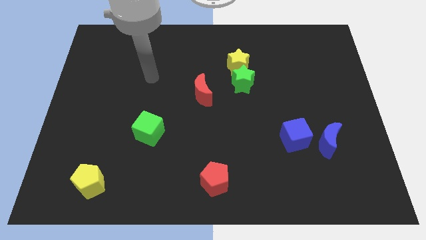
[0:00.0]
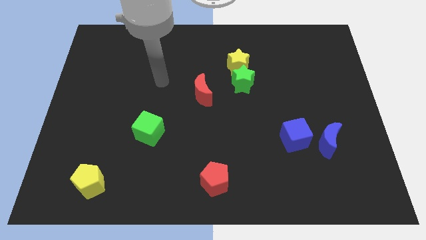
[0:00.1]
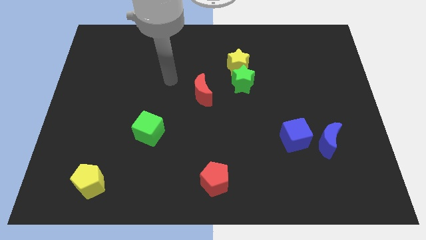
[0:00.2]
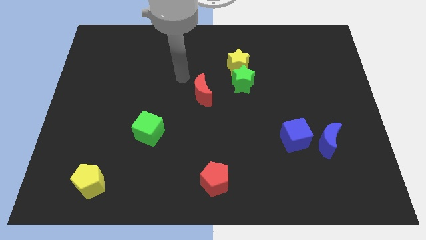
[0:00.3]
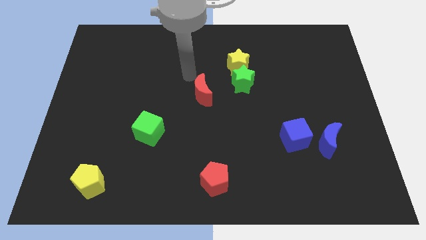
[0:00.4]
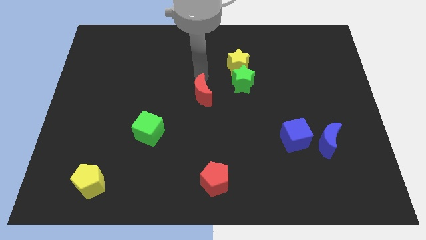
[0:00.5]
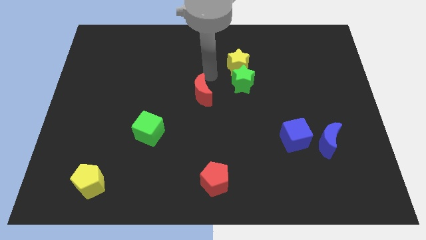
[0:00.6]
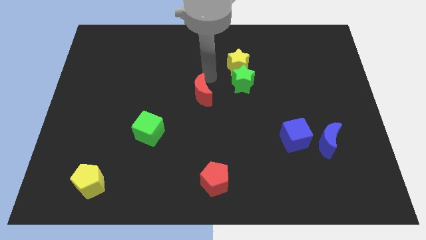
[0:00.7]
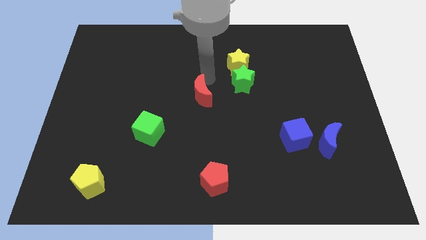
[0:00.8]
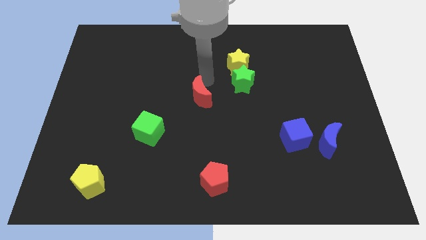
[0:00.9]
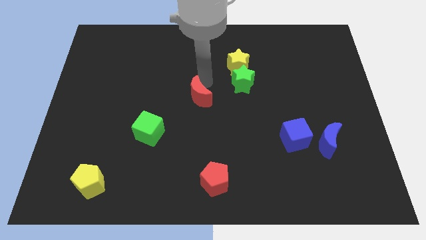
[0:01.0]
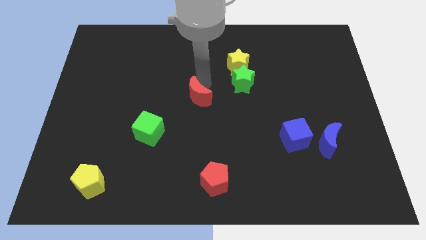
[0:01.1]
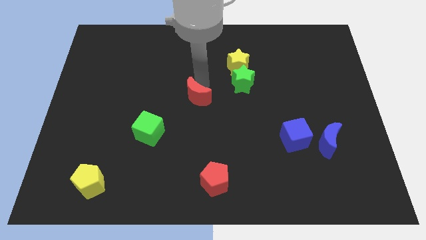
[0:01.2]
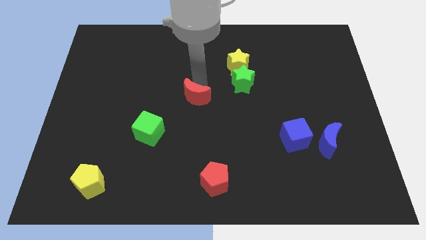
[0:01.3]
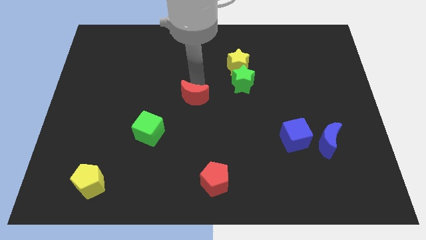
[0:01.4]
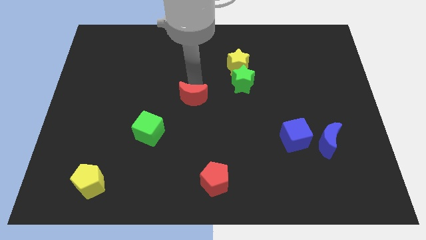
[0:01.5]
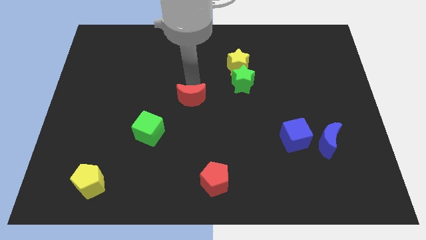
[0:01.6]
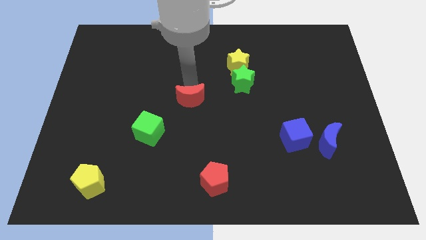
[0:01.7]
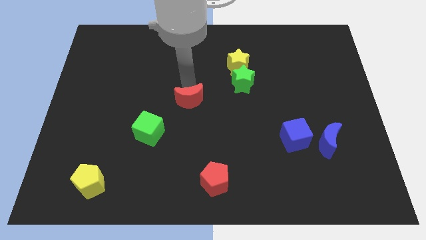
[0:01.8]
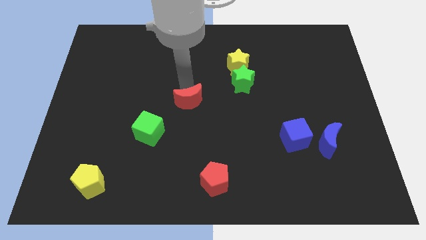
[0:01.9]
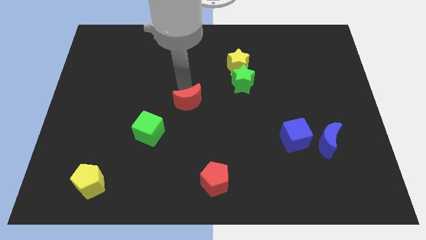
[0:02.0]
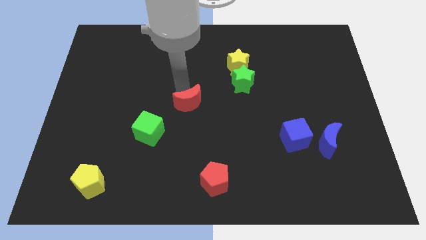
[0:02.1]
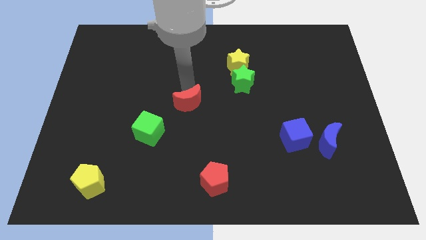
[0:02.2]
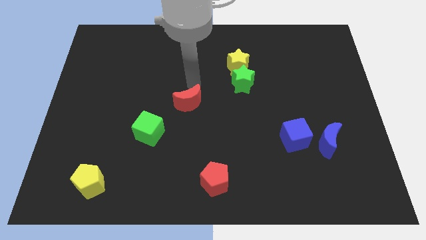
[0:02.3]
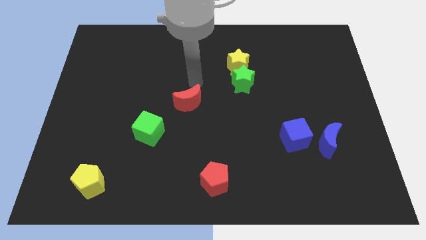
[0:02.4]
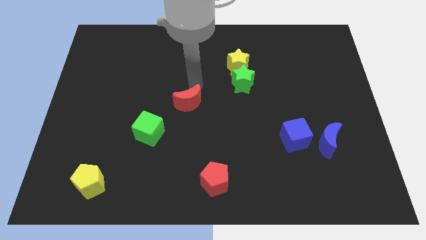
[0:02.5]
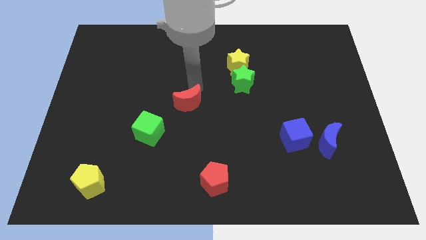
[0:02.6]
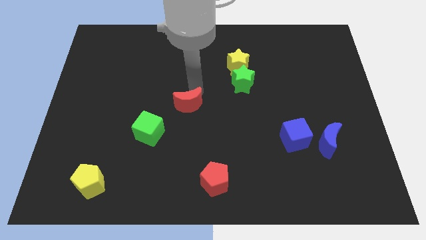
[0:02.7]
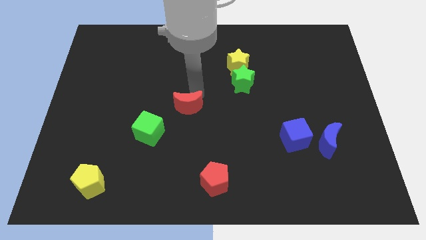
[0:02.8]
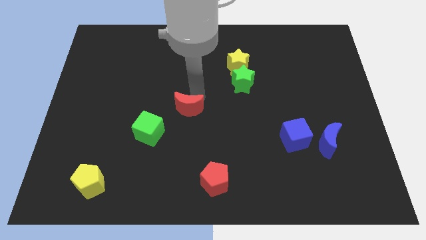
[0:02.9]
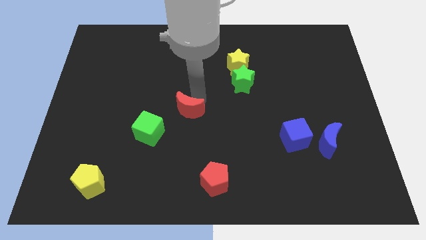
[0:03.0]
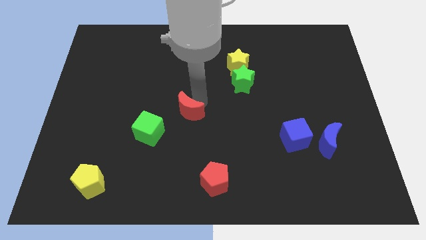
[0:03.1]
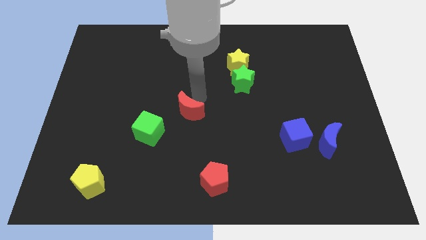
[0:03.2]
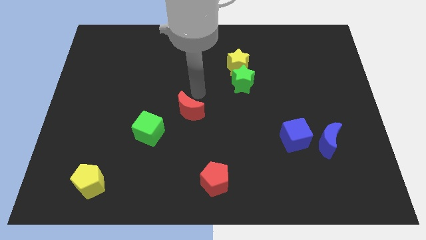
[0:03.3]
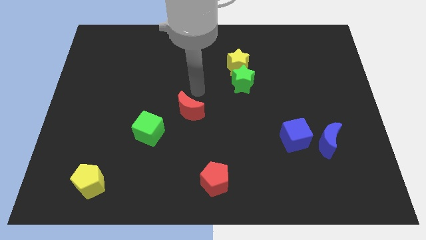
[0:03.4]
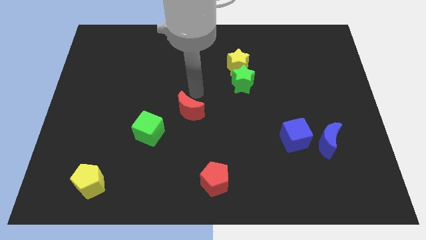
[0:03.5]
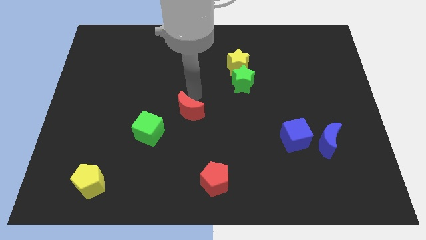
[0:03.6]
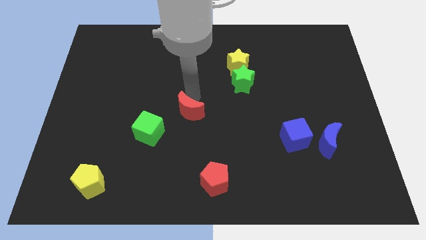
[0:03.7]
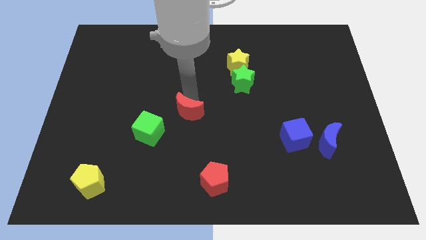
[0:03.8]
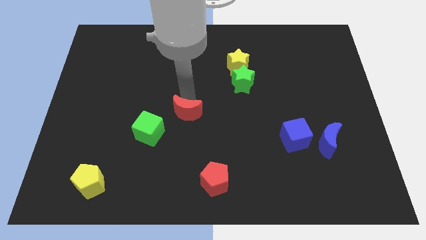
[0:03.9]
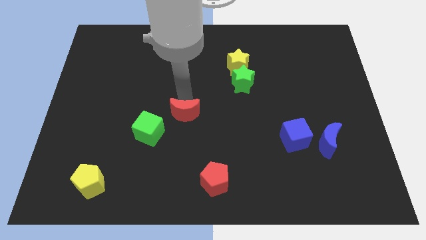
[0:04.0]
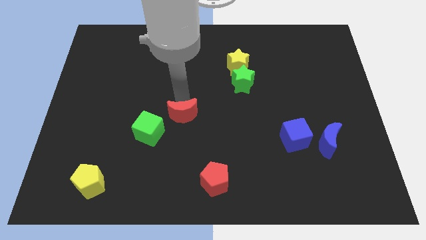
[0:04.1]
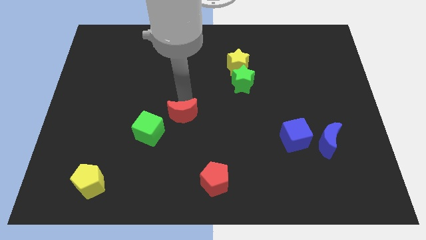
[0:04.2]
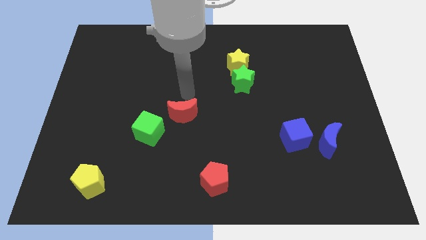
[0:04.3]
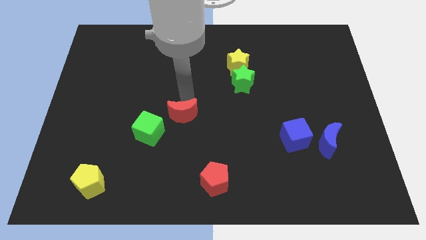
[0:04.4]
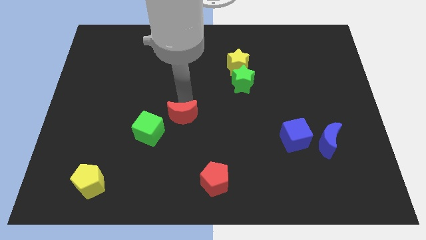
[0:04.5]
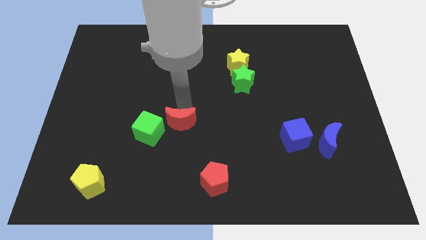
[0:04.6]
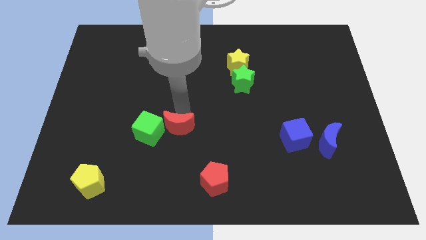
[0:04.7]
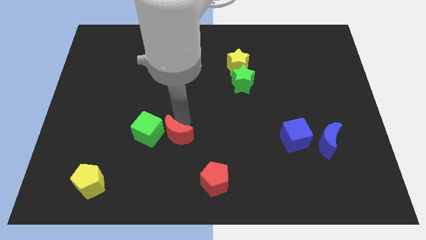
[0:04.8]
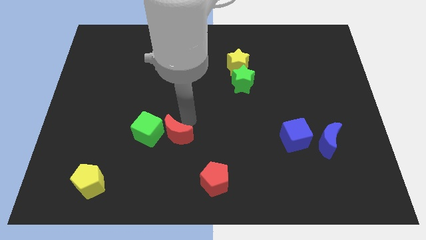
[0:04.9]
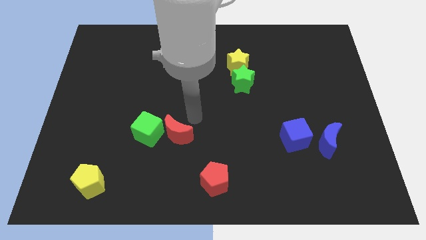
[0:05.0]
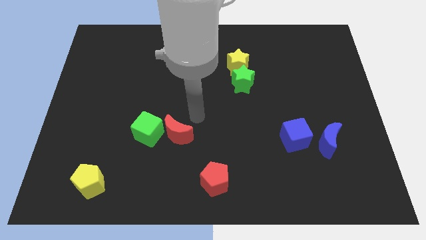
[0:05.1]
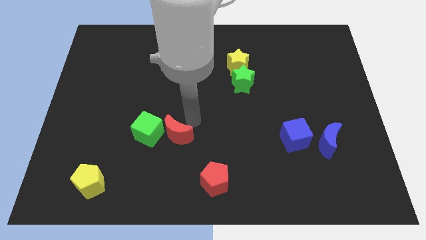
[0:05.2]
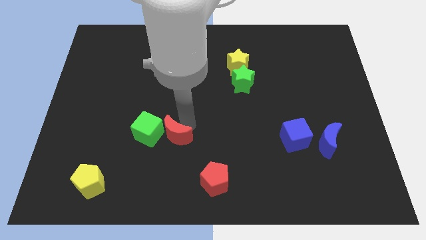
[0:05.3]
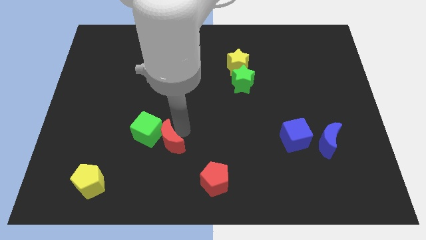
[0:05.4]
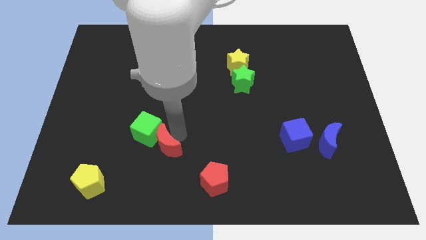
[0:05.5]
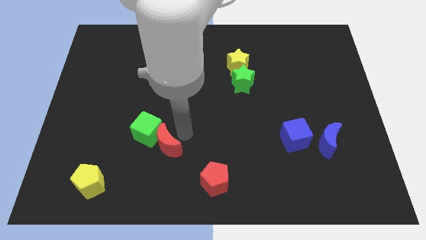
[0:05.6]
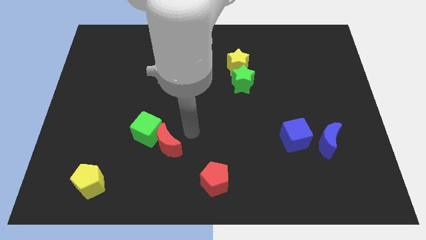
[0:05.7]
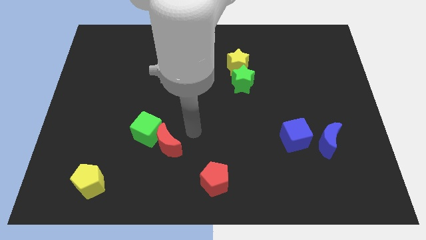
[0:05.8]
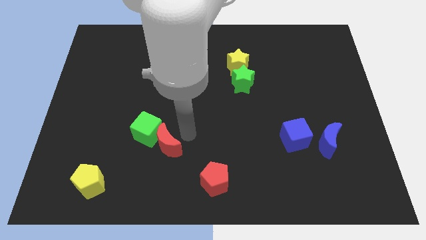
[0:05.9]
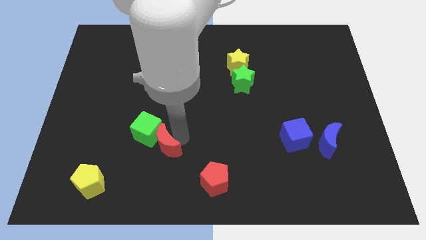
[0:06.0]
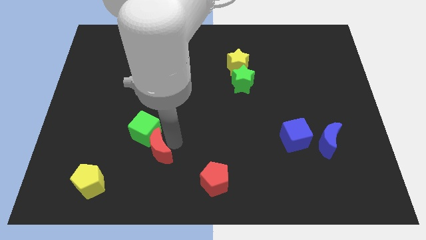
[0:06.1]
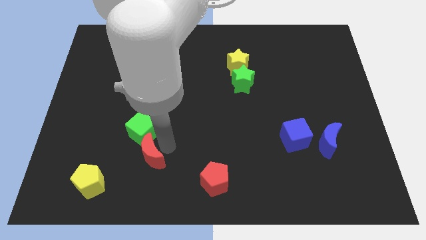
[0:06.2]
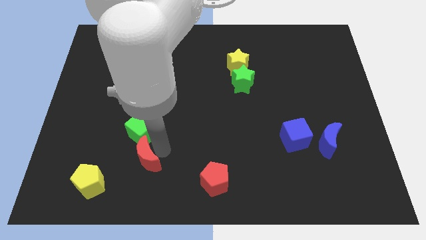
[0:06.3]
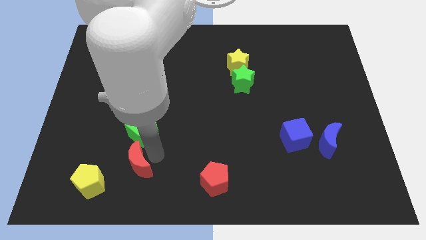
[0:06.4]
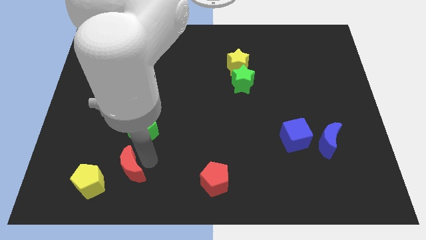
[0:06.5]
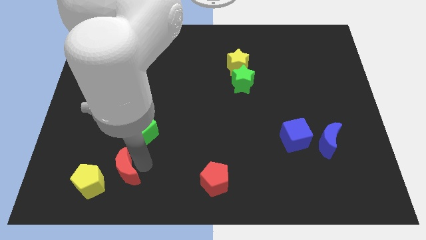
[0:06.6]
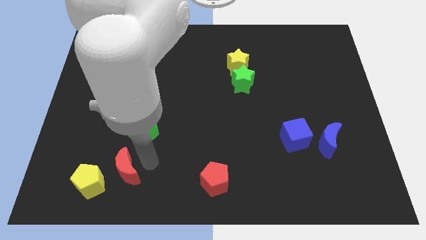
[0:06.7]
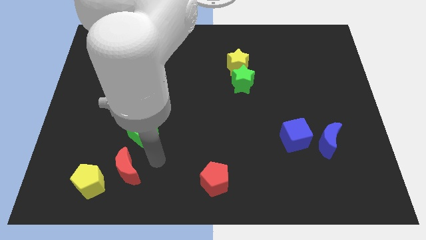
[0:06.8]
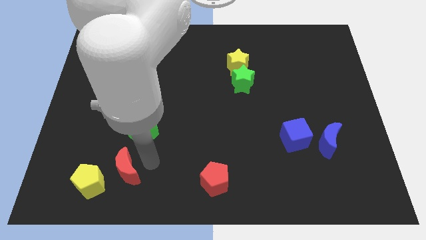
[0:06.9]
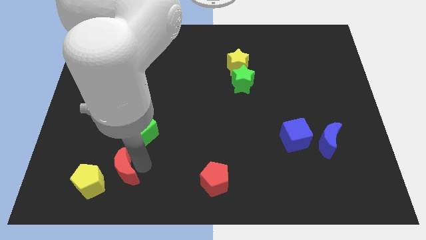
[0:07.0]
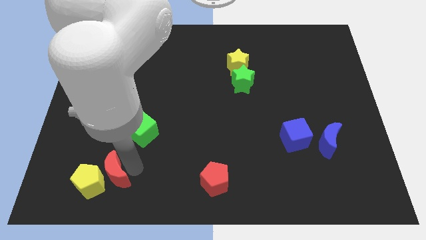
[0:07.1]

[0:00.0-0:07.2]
put the red moon next to the yellow pentagon

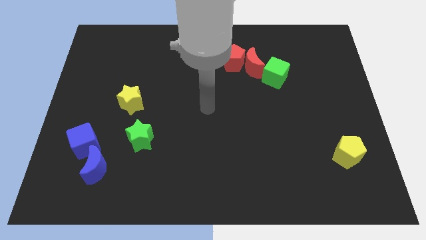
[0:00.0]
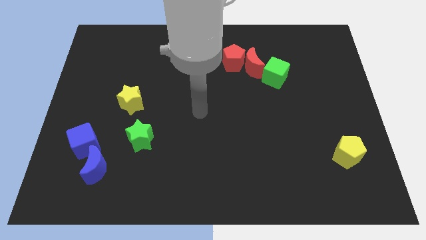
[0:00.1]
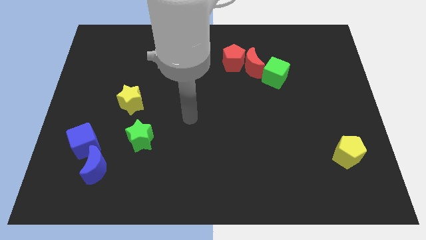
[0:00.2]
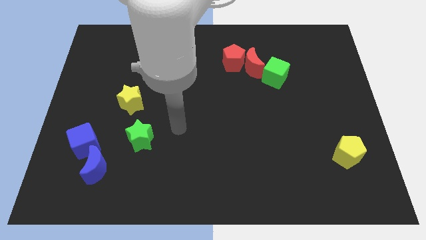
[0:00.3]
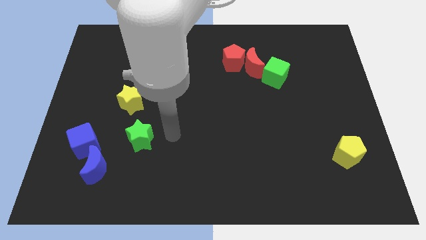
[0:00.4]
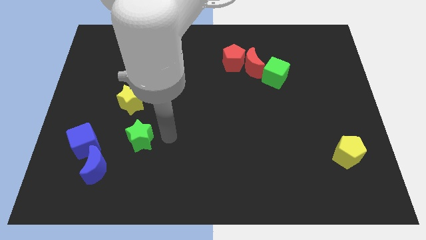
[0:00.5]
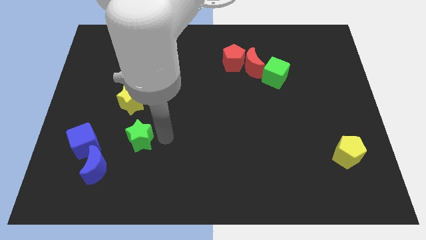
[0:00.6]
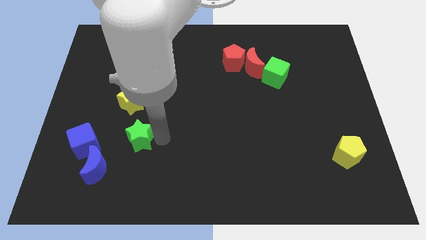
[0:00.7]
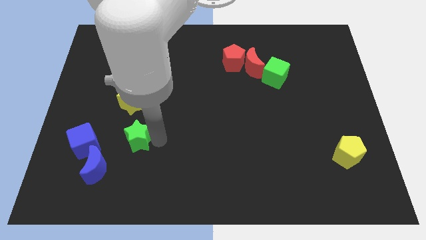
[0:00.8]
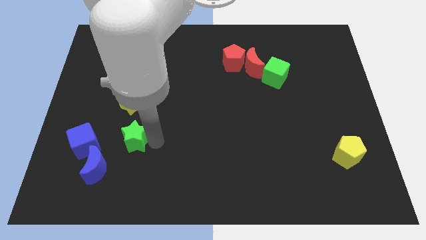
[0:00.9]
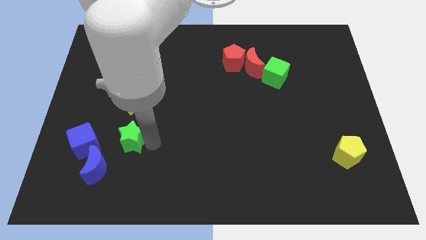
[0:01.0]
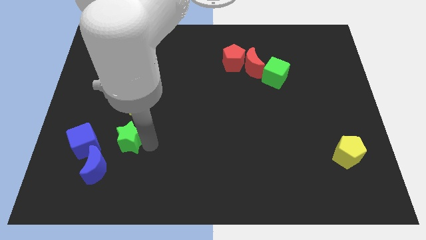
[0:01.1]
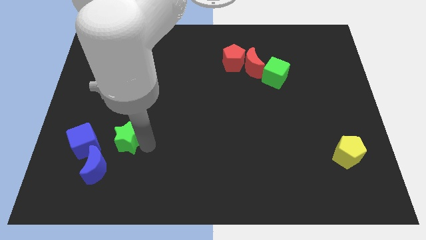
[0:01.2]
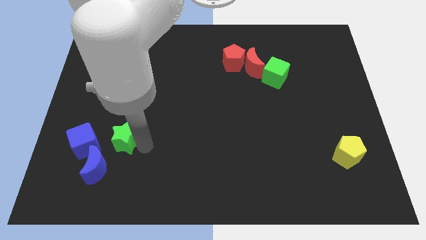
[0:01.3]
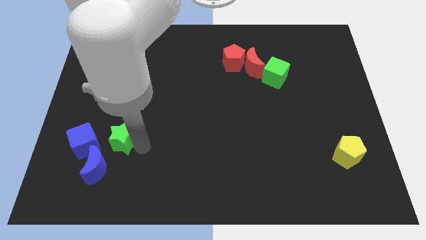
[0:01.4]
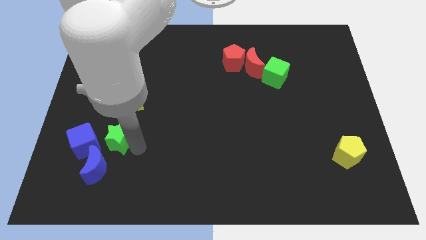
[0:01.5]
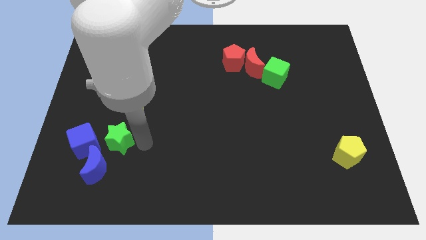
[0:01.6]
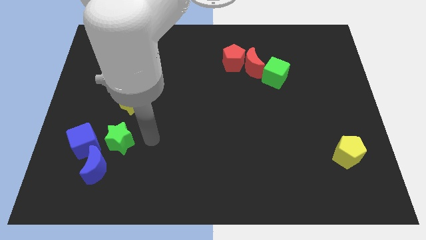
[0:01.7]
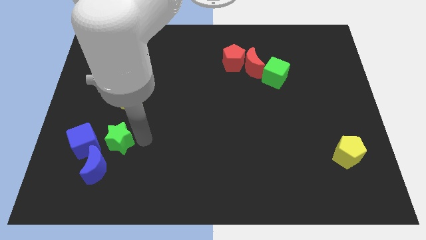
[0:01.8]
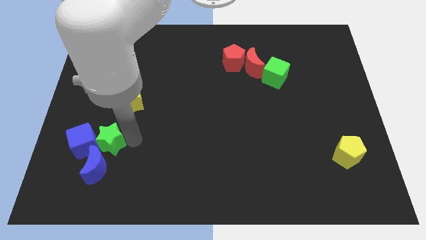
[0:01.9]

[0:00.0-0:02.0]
push the green star close to the blue cube
